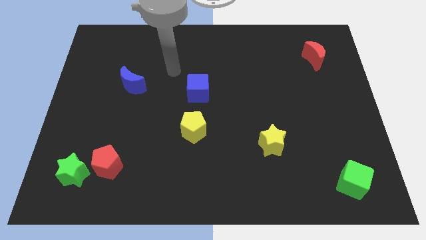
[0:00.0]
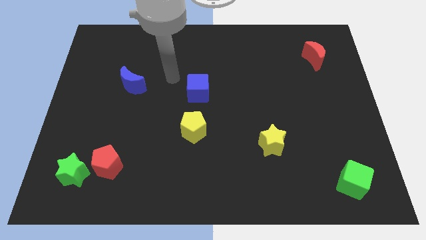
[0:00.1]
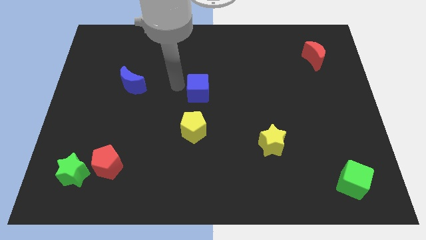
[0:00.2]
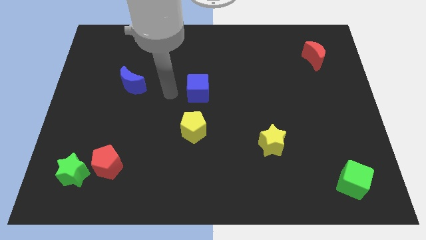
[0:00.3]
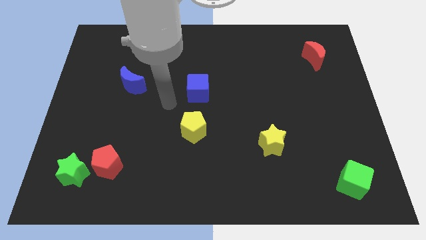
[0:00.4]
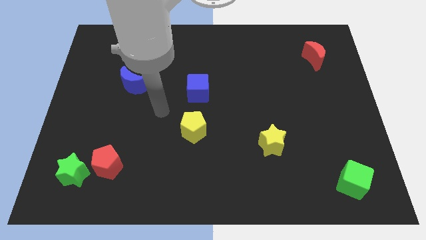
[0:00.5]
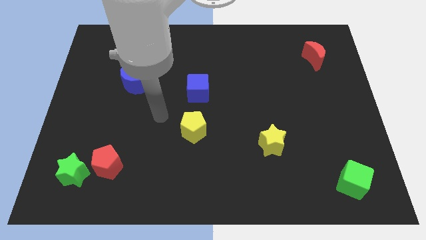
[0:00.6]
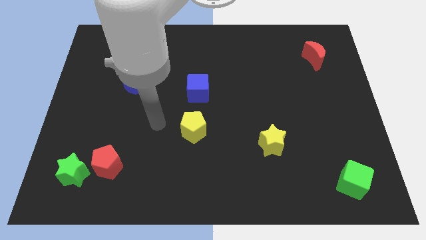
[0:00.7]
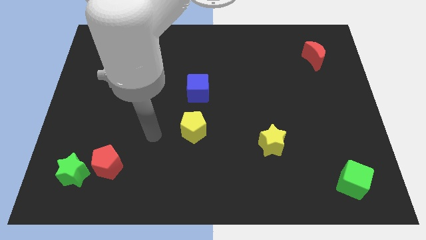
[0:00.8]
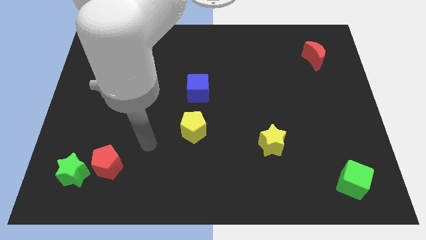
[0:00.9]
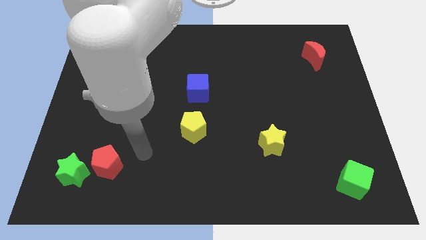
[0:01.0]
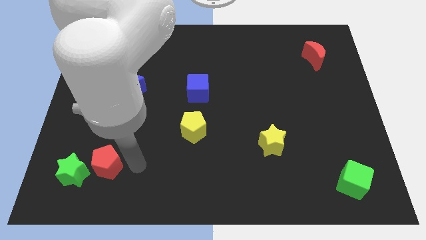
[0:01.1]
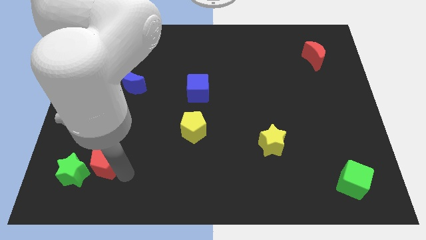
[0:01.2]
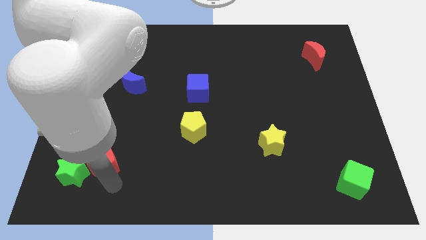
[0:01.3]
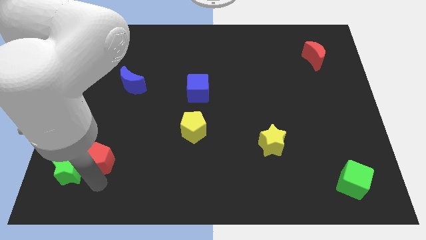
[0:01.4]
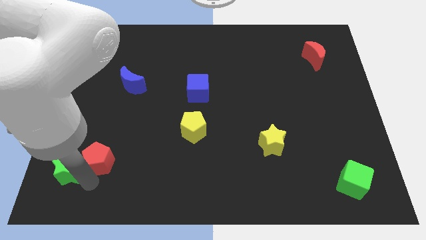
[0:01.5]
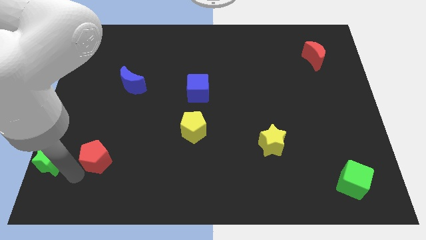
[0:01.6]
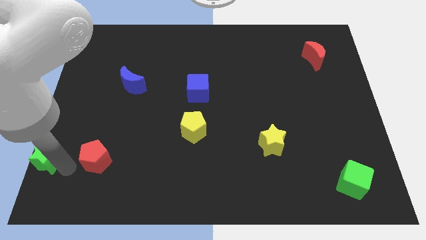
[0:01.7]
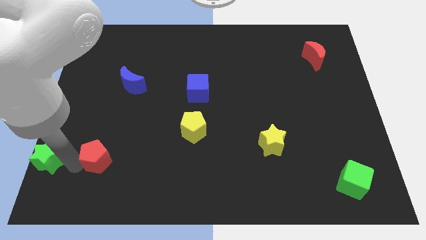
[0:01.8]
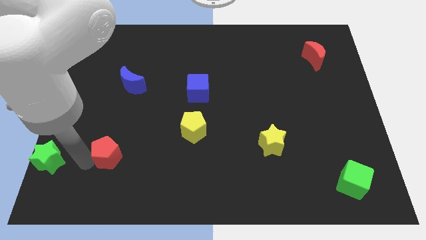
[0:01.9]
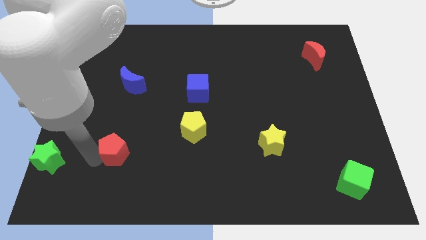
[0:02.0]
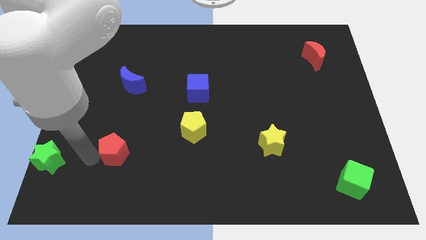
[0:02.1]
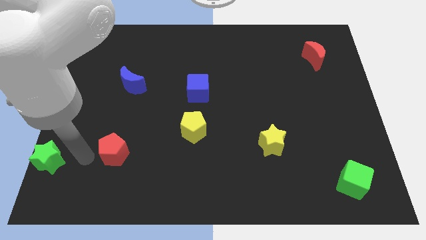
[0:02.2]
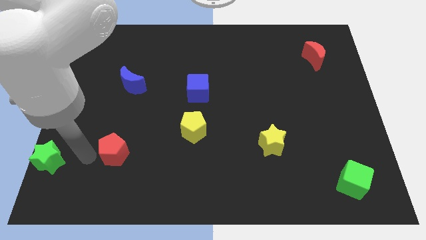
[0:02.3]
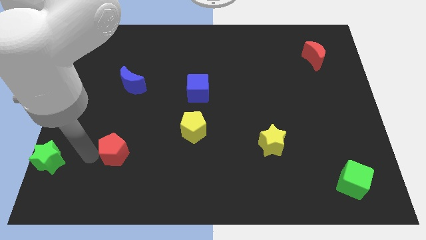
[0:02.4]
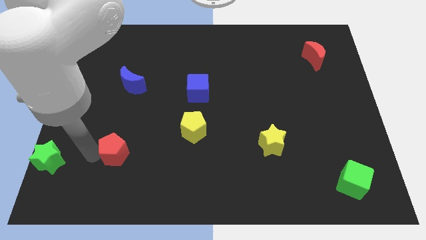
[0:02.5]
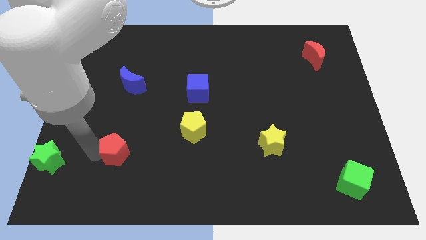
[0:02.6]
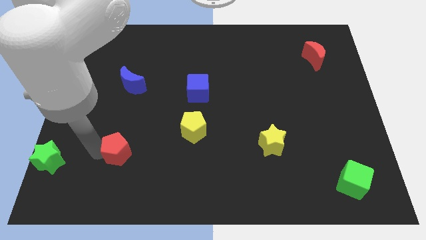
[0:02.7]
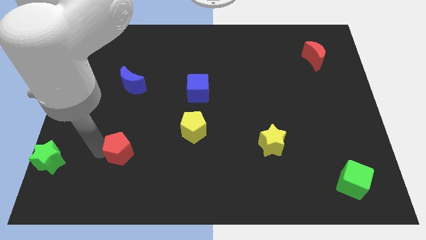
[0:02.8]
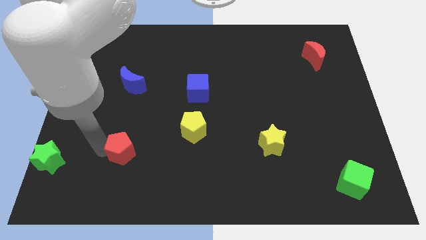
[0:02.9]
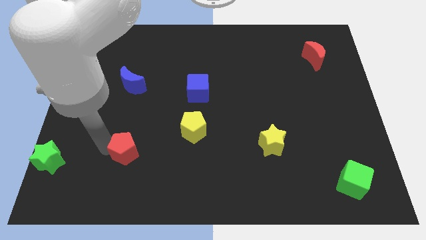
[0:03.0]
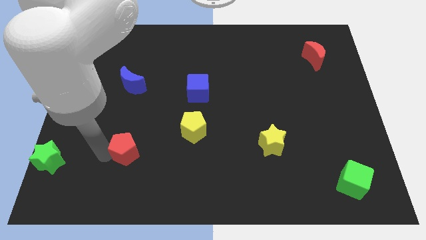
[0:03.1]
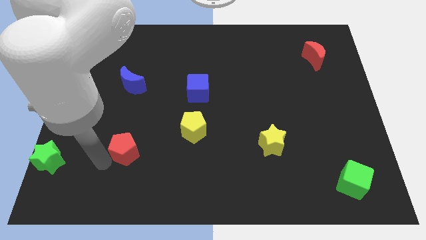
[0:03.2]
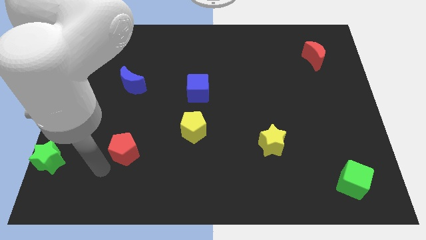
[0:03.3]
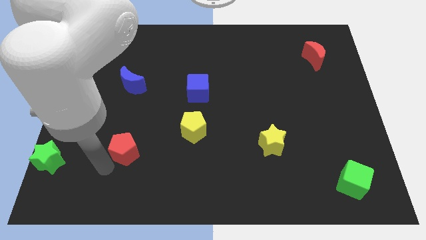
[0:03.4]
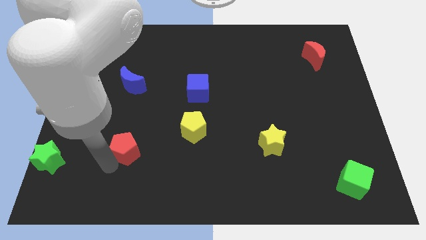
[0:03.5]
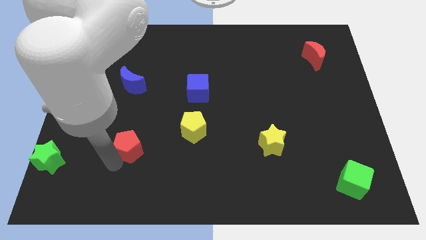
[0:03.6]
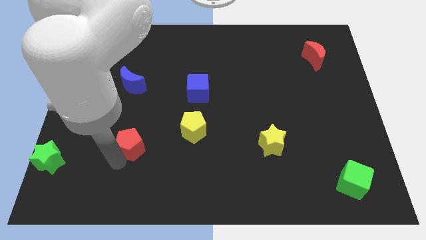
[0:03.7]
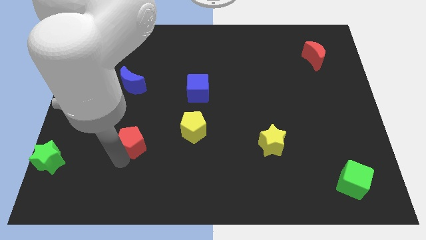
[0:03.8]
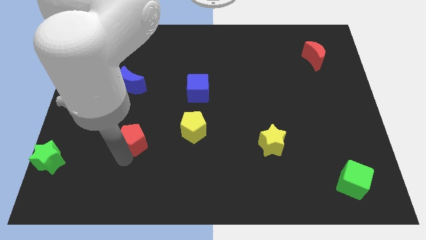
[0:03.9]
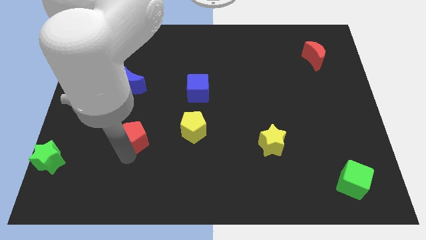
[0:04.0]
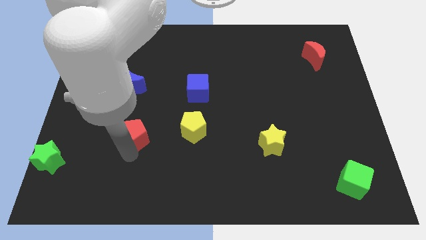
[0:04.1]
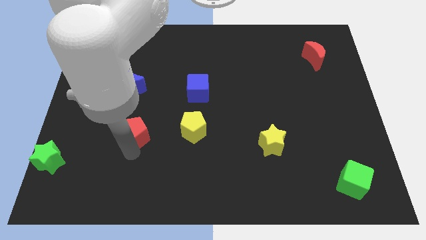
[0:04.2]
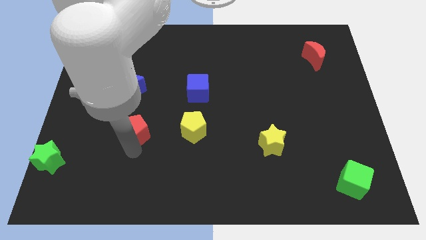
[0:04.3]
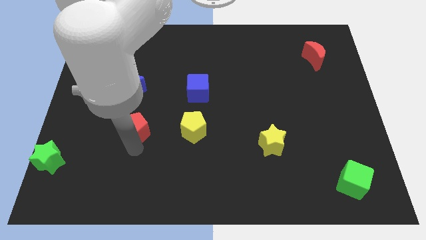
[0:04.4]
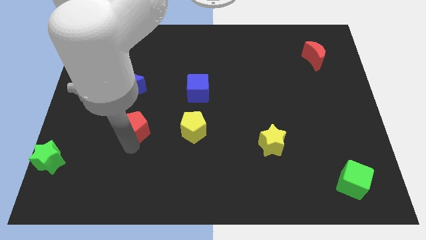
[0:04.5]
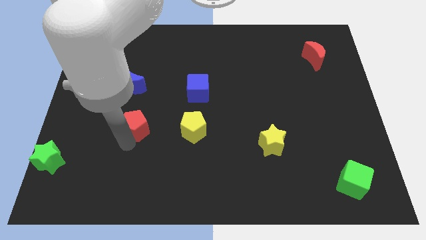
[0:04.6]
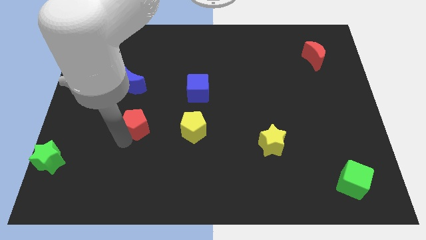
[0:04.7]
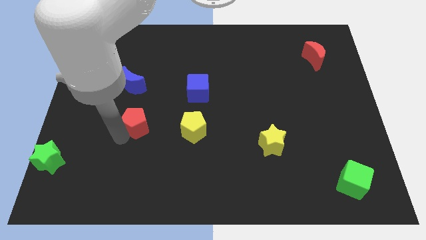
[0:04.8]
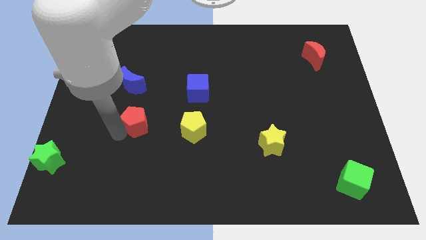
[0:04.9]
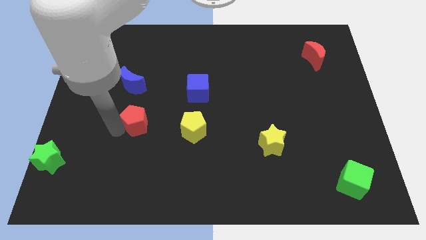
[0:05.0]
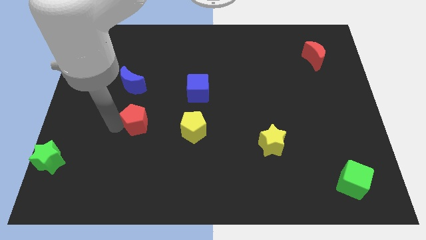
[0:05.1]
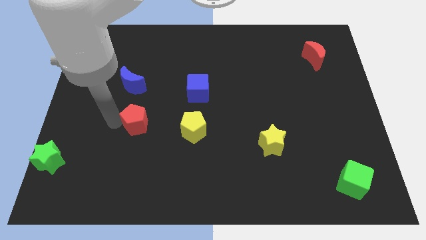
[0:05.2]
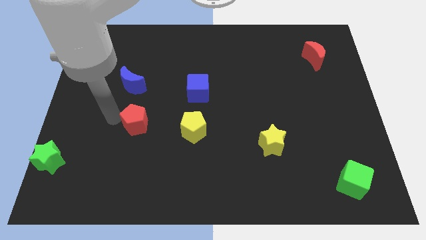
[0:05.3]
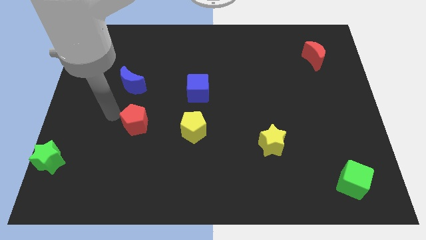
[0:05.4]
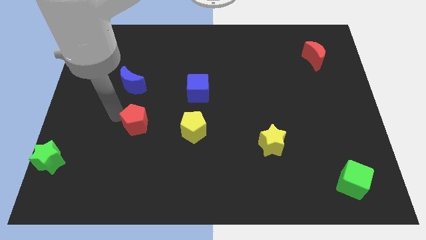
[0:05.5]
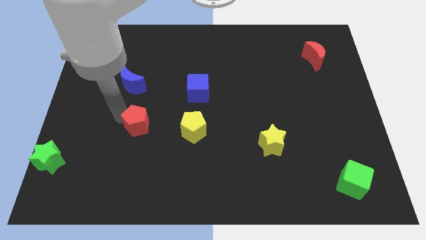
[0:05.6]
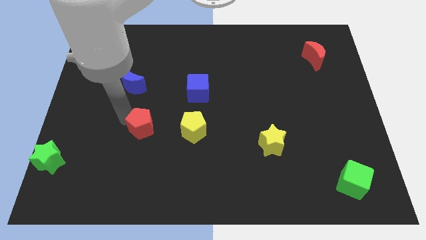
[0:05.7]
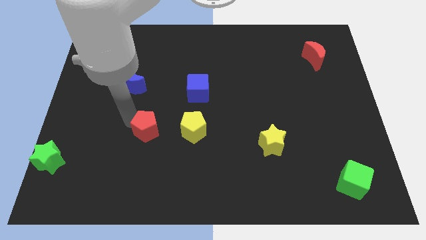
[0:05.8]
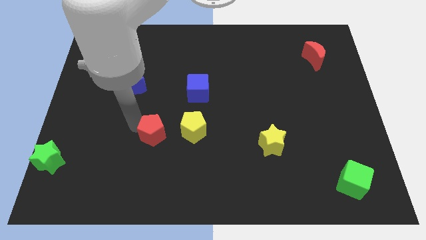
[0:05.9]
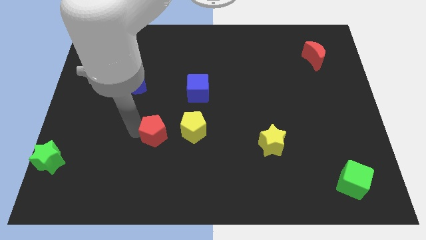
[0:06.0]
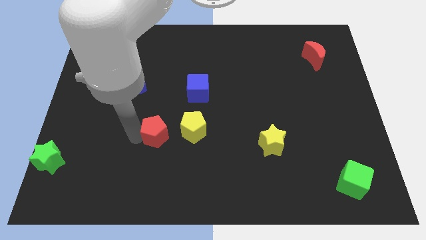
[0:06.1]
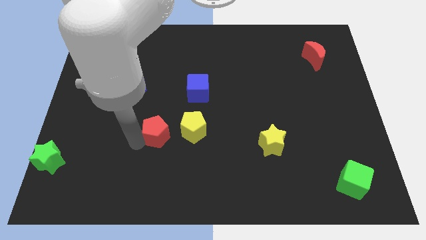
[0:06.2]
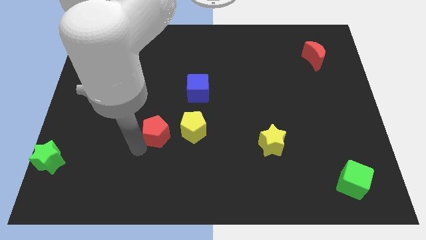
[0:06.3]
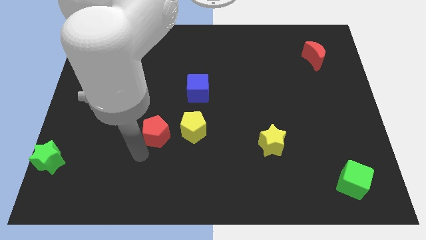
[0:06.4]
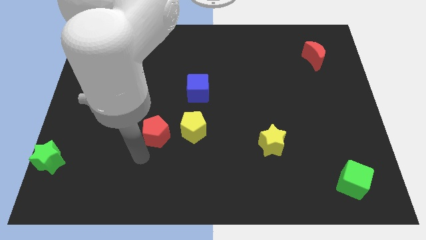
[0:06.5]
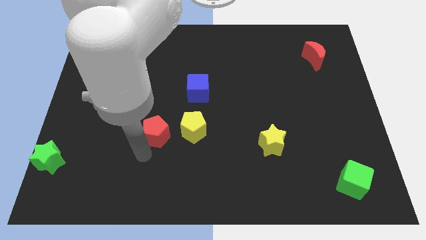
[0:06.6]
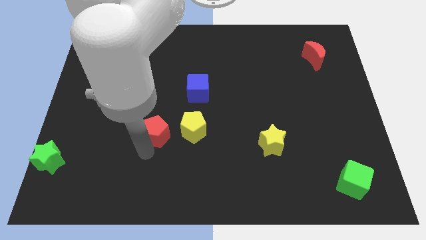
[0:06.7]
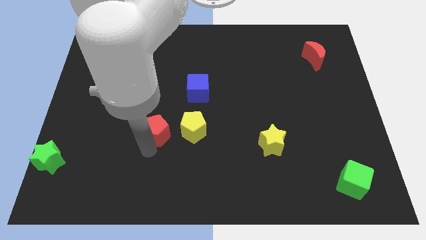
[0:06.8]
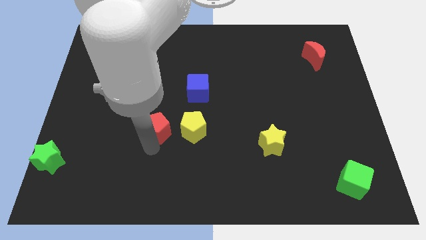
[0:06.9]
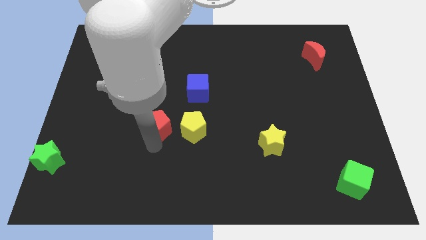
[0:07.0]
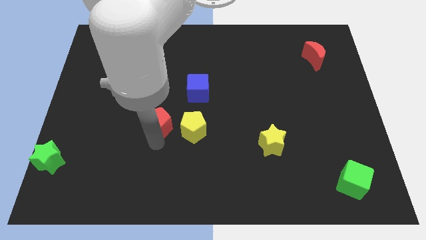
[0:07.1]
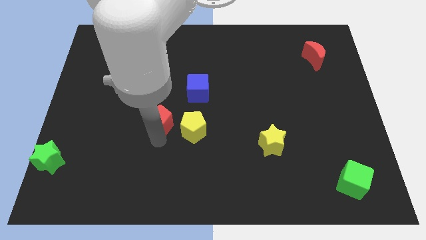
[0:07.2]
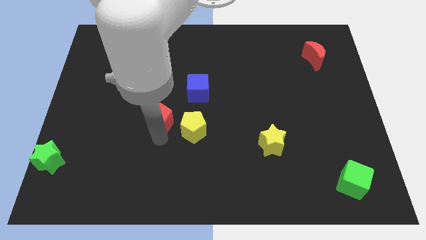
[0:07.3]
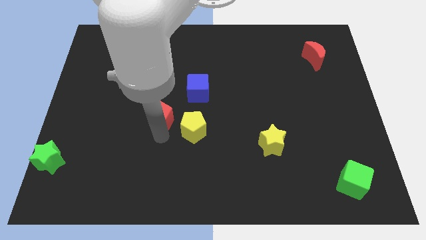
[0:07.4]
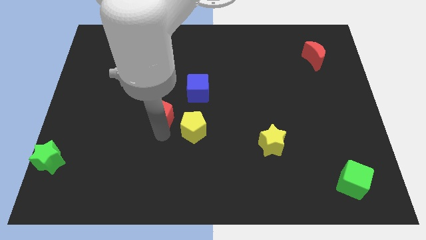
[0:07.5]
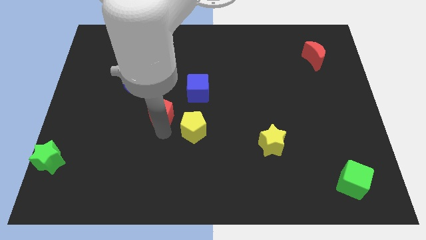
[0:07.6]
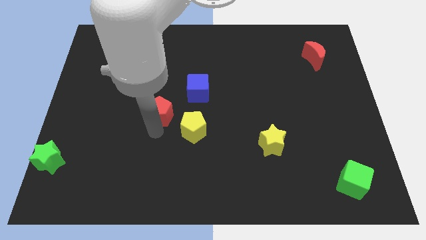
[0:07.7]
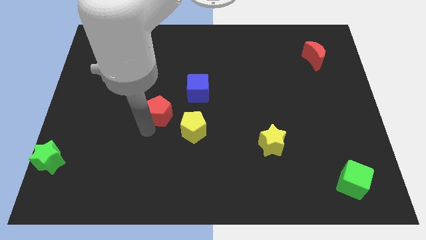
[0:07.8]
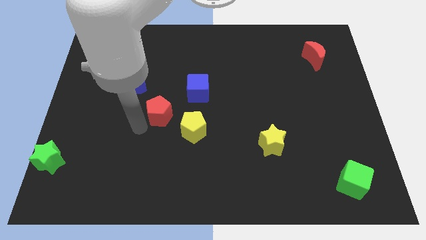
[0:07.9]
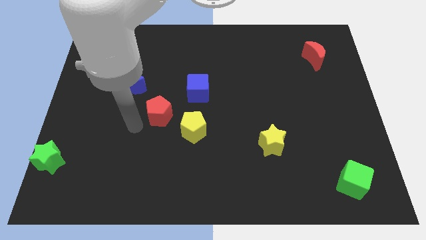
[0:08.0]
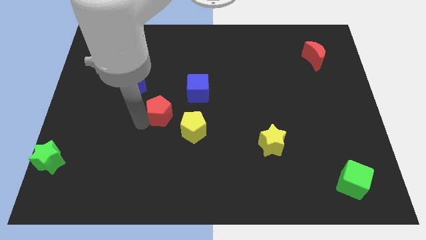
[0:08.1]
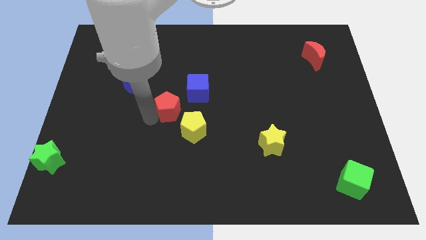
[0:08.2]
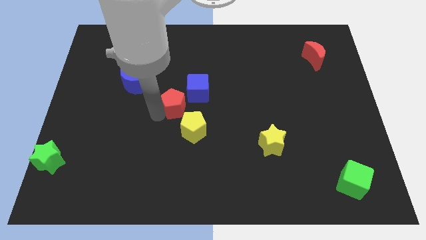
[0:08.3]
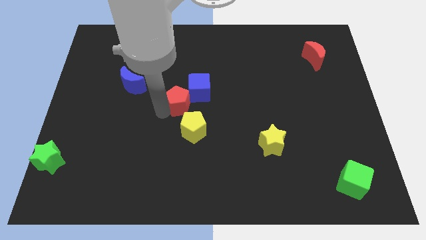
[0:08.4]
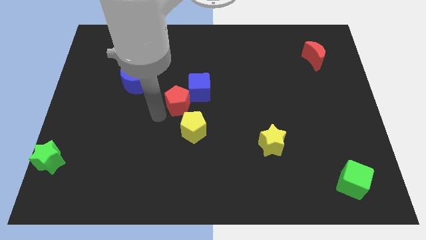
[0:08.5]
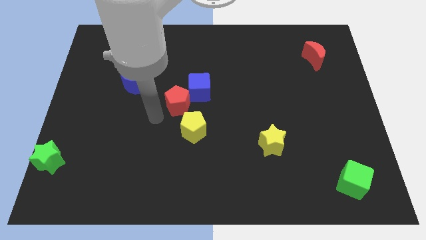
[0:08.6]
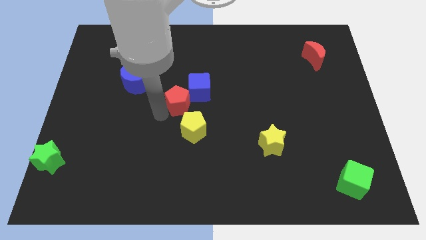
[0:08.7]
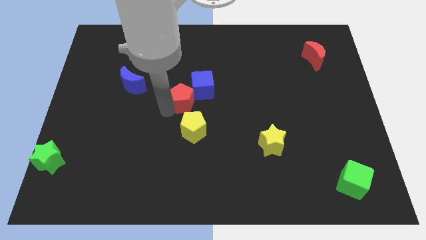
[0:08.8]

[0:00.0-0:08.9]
push the red pentagon to the blue cube
